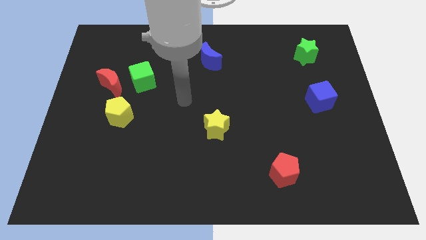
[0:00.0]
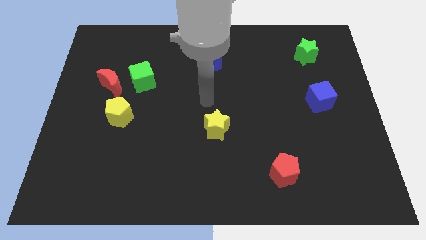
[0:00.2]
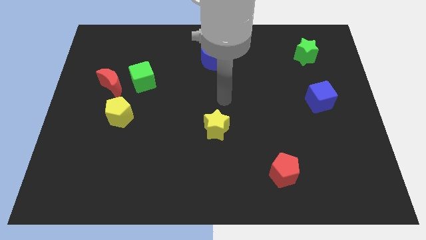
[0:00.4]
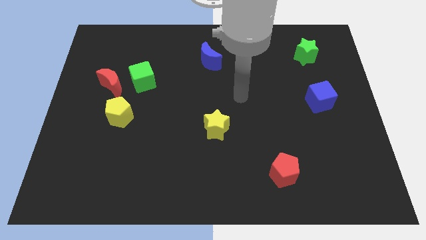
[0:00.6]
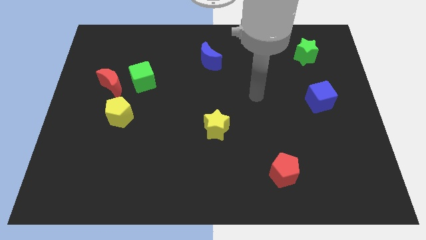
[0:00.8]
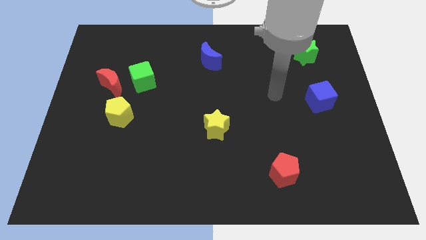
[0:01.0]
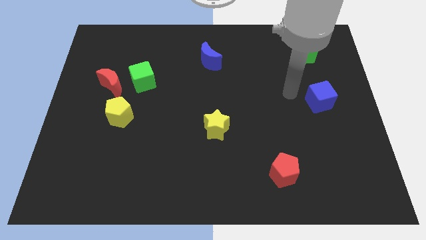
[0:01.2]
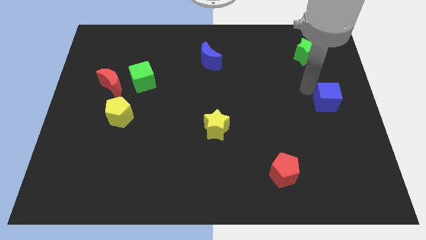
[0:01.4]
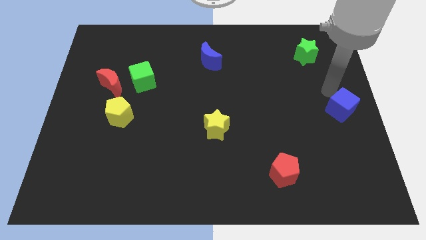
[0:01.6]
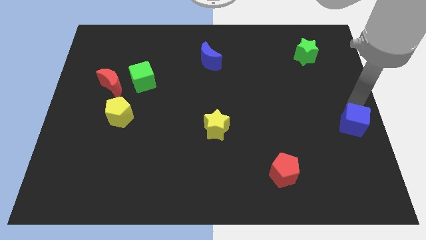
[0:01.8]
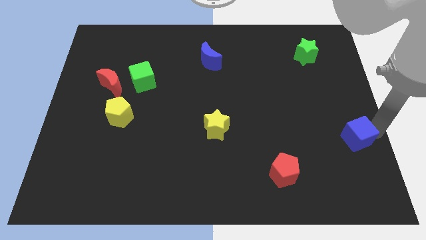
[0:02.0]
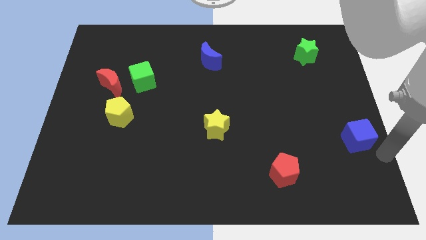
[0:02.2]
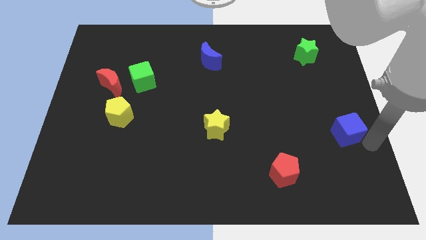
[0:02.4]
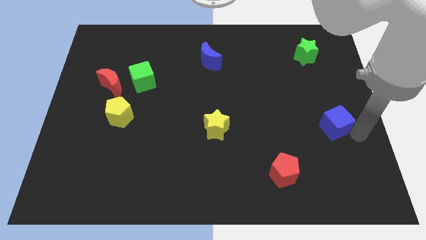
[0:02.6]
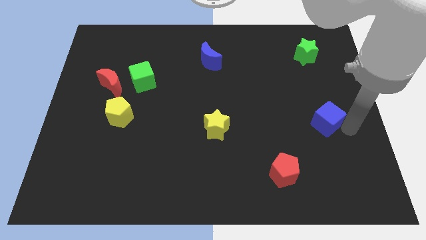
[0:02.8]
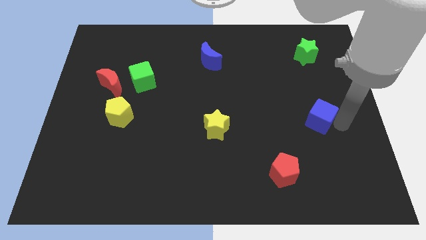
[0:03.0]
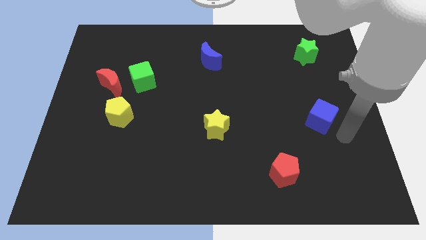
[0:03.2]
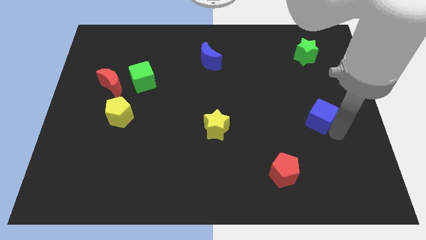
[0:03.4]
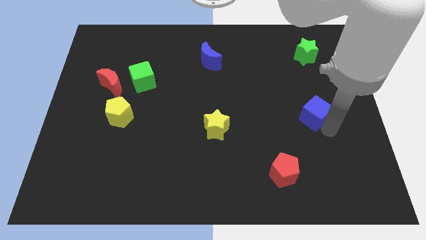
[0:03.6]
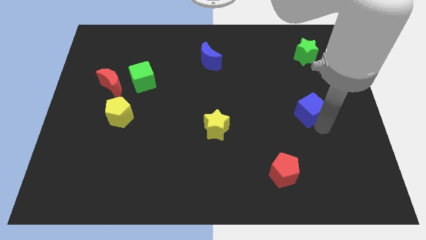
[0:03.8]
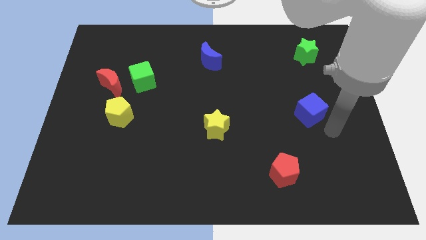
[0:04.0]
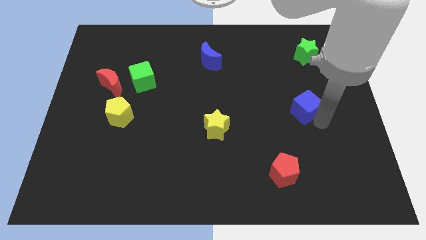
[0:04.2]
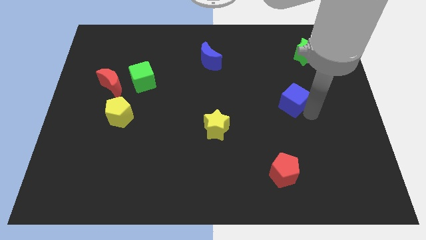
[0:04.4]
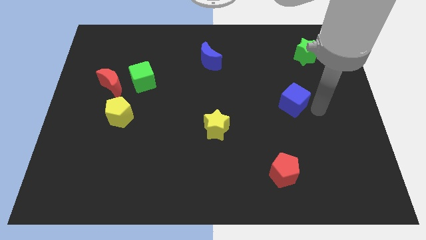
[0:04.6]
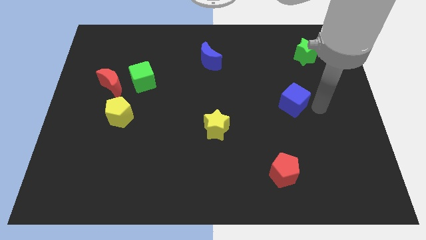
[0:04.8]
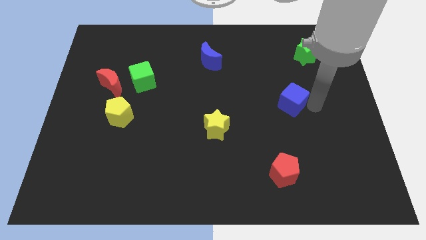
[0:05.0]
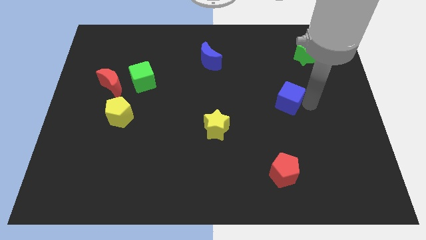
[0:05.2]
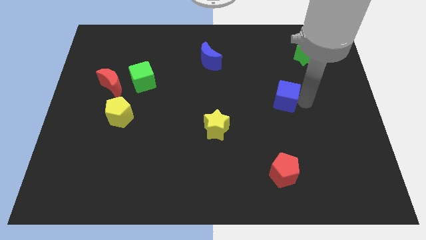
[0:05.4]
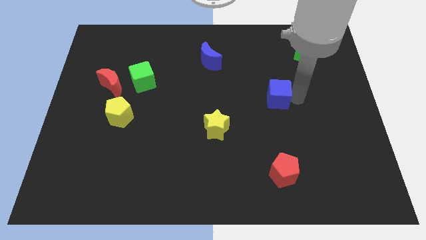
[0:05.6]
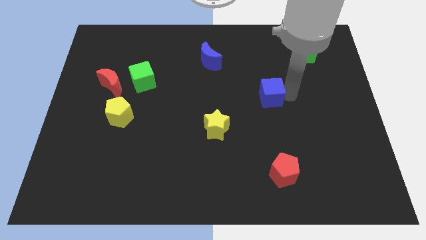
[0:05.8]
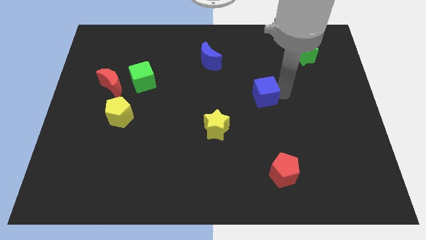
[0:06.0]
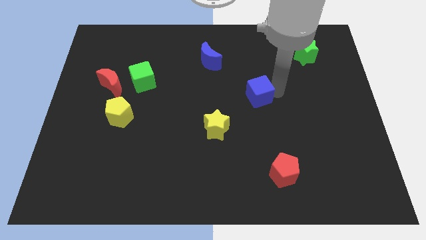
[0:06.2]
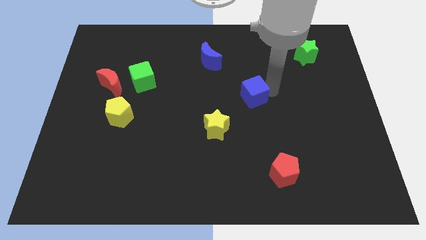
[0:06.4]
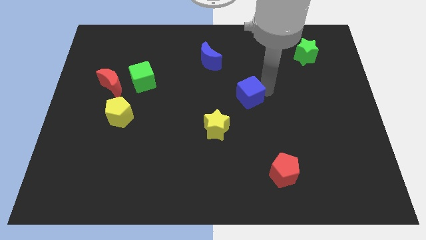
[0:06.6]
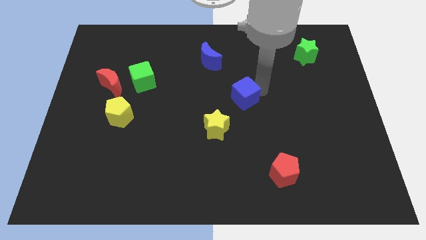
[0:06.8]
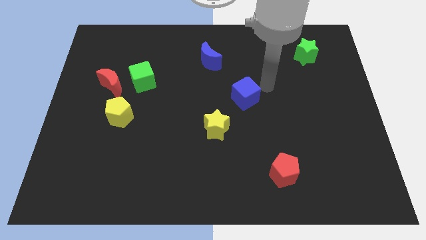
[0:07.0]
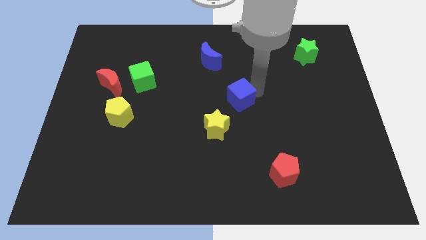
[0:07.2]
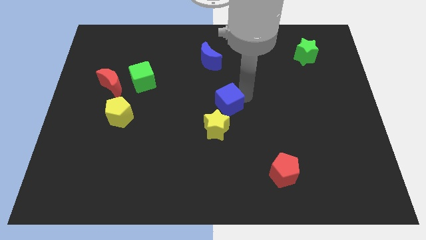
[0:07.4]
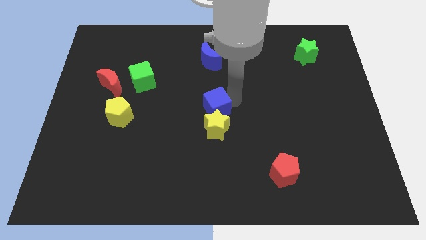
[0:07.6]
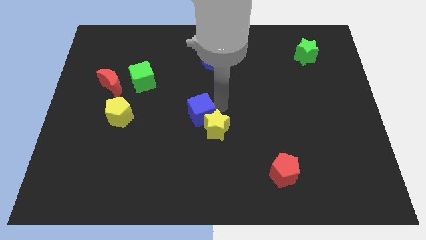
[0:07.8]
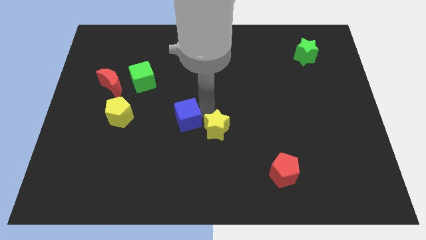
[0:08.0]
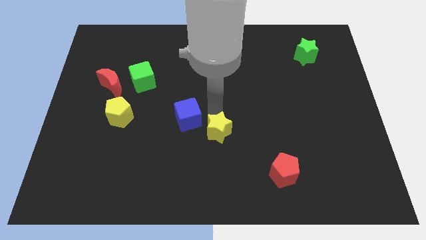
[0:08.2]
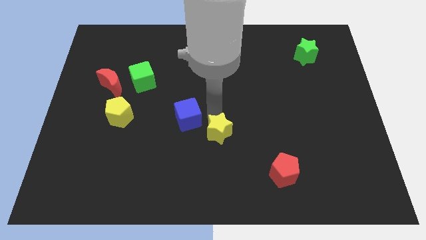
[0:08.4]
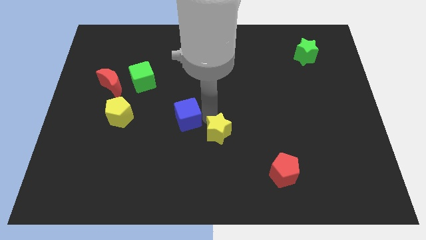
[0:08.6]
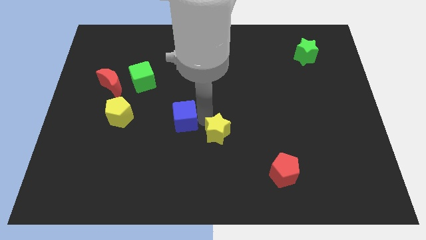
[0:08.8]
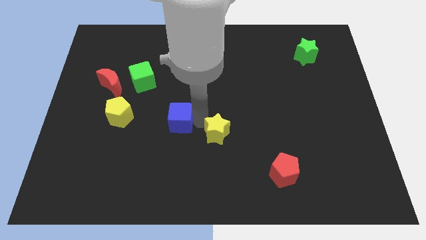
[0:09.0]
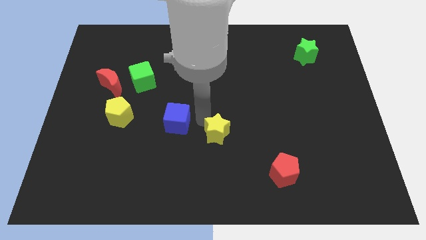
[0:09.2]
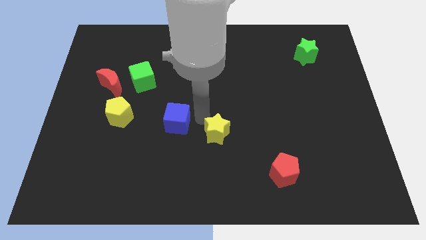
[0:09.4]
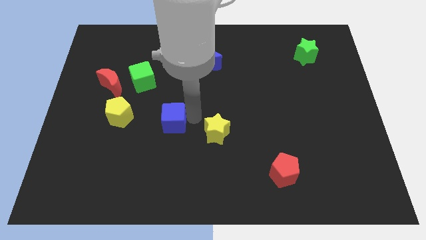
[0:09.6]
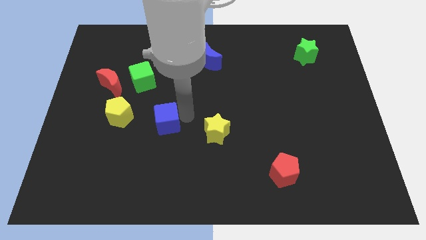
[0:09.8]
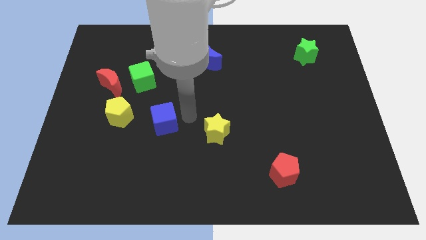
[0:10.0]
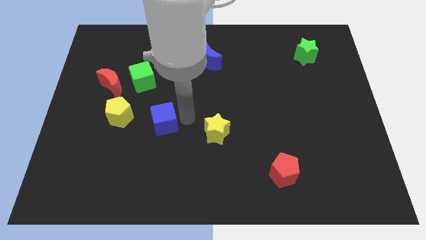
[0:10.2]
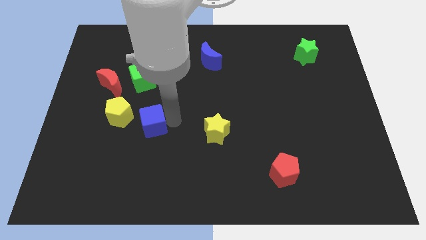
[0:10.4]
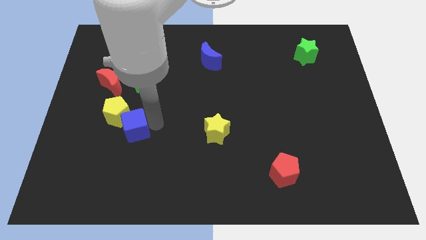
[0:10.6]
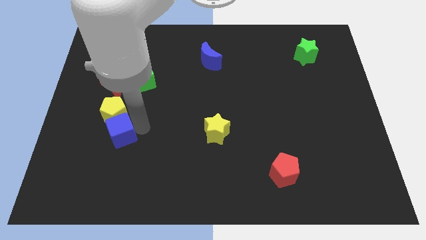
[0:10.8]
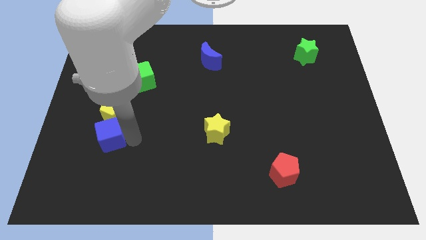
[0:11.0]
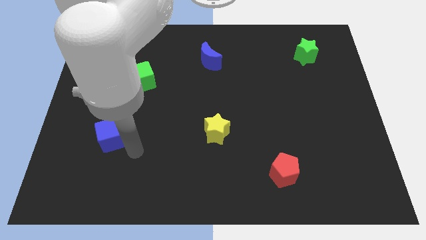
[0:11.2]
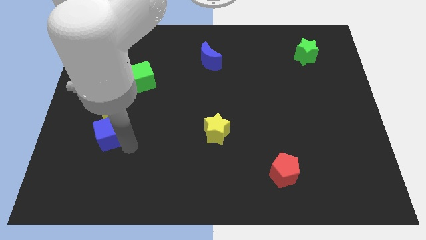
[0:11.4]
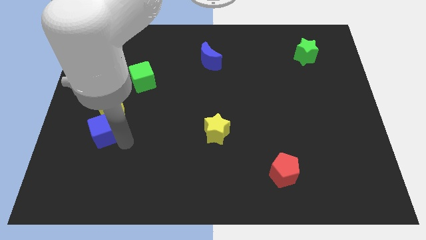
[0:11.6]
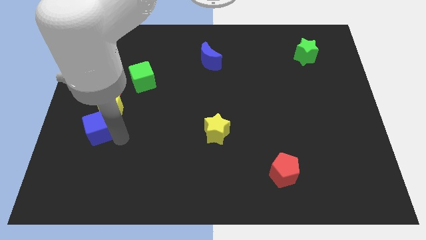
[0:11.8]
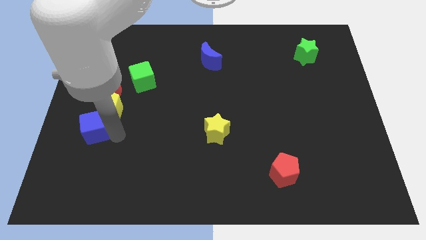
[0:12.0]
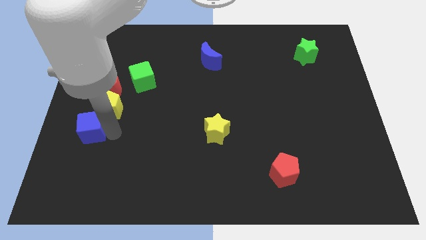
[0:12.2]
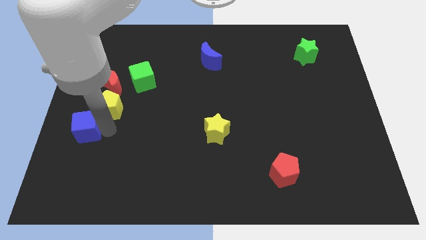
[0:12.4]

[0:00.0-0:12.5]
push the blue cube to the left side of the board

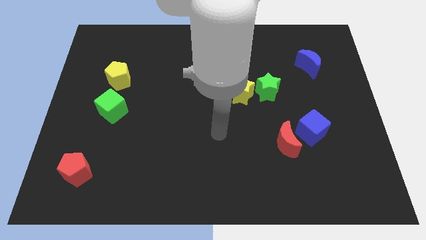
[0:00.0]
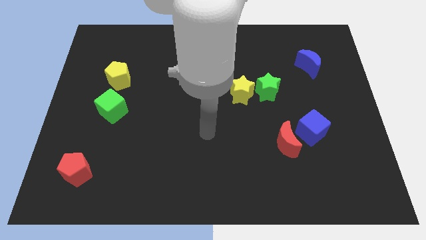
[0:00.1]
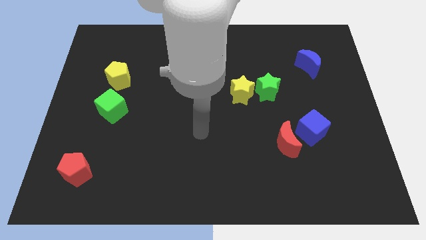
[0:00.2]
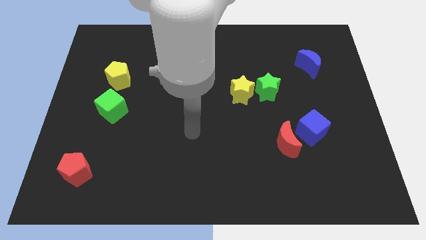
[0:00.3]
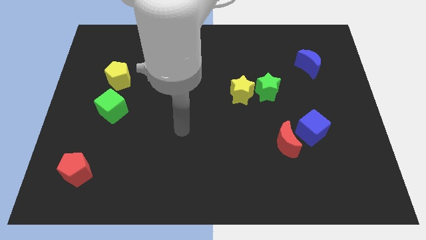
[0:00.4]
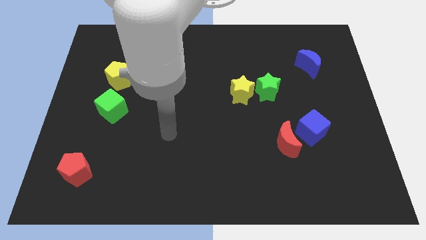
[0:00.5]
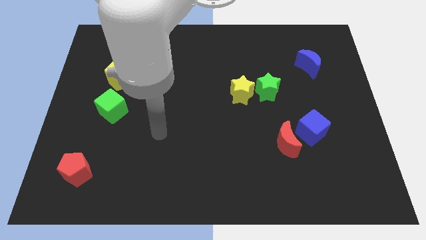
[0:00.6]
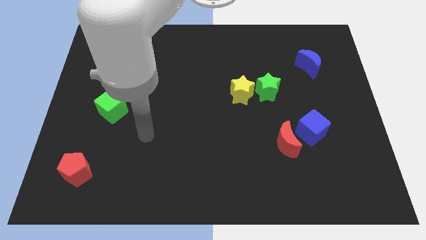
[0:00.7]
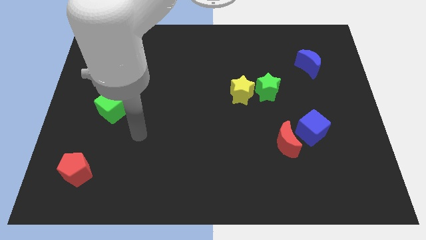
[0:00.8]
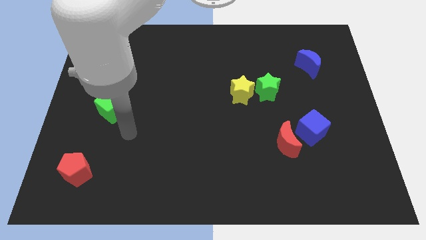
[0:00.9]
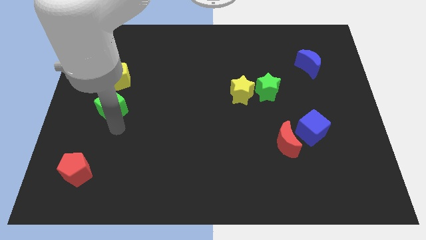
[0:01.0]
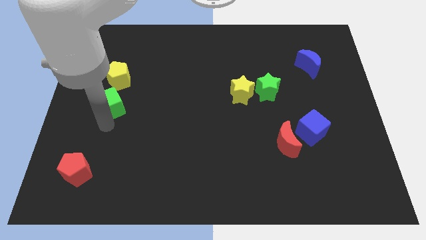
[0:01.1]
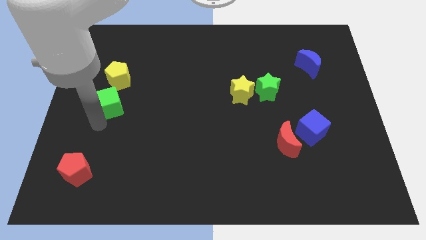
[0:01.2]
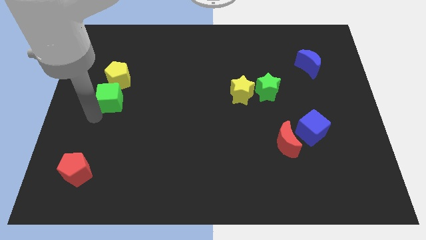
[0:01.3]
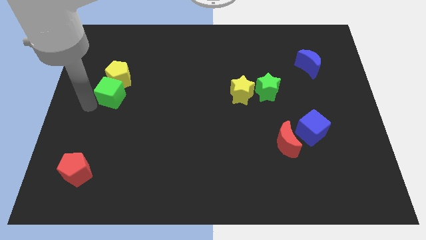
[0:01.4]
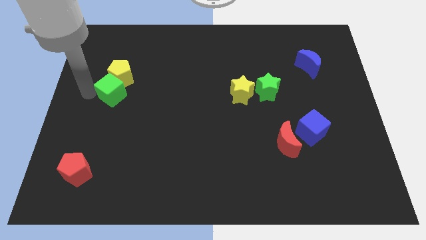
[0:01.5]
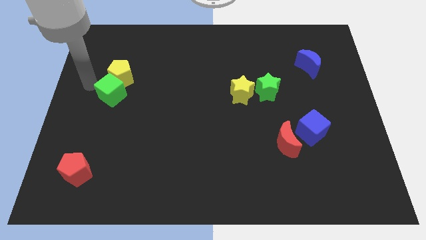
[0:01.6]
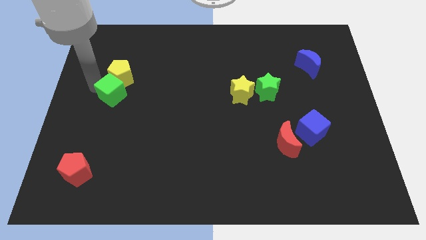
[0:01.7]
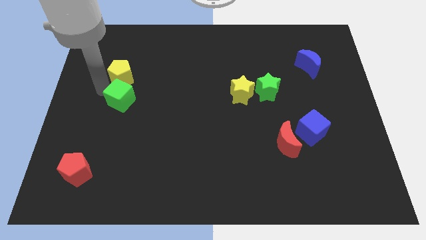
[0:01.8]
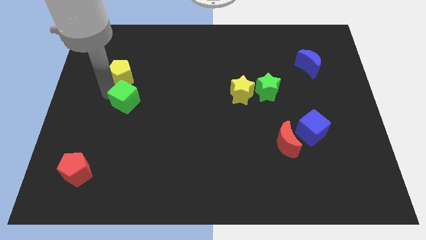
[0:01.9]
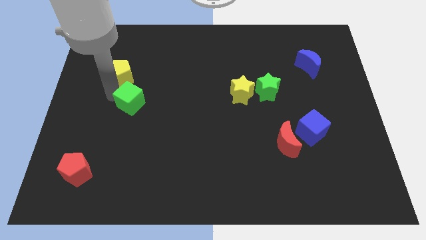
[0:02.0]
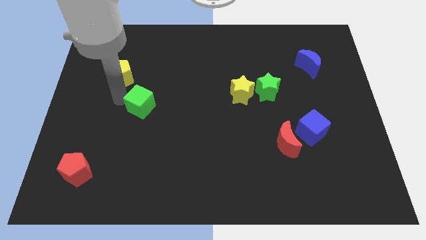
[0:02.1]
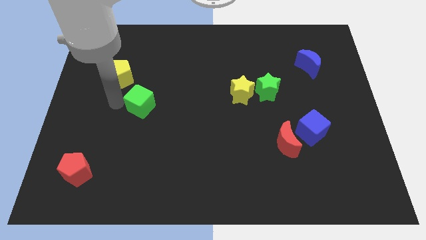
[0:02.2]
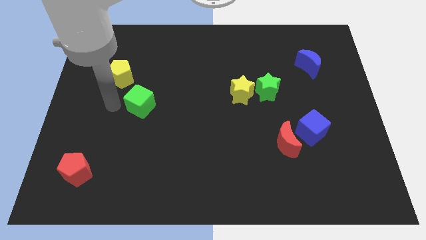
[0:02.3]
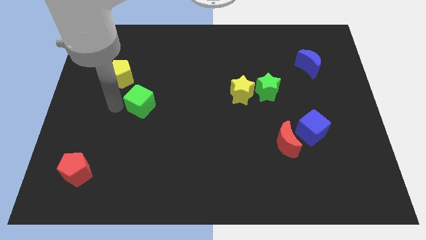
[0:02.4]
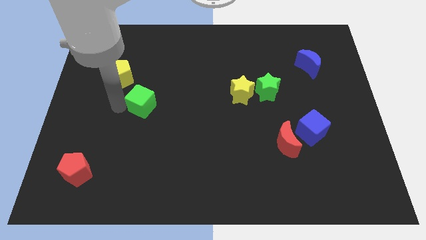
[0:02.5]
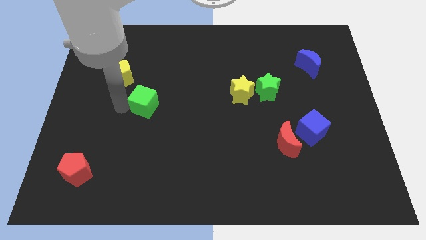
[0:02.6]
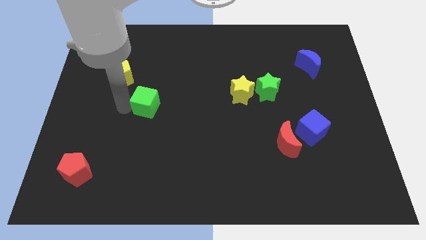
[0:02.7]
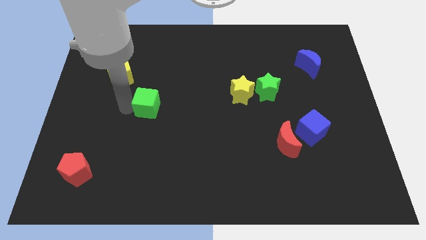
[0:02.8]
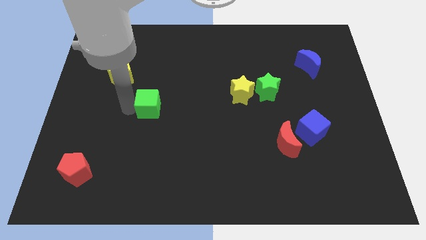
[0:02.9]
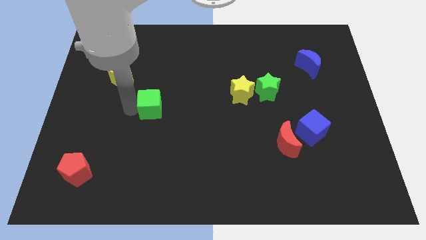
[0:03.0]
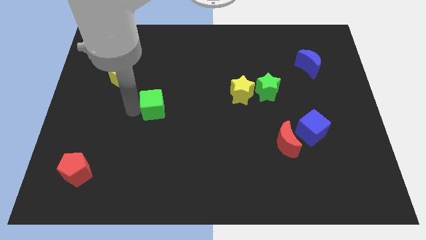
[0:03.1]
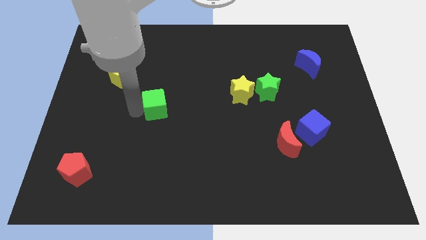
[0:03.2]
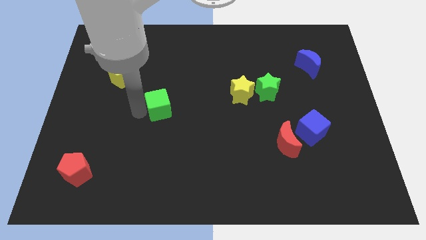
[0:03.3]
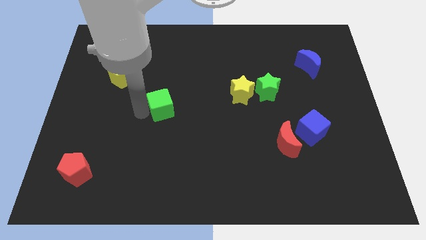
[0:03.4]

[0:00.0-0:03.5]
move the green cube to the middle of the board
